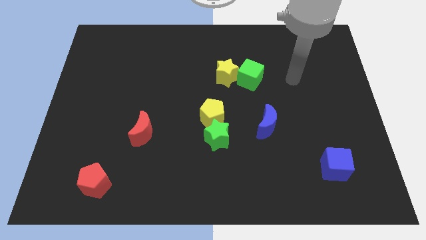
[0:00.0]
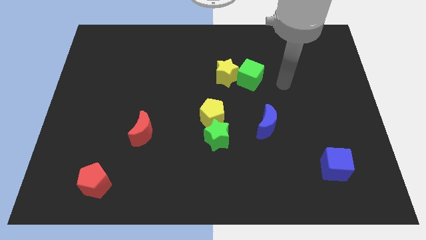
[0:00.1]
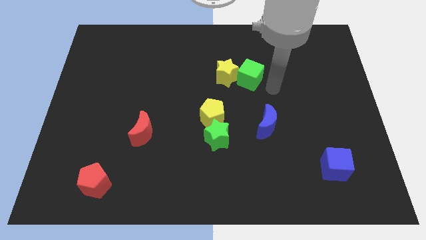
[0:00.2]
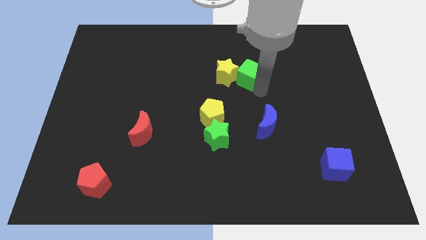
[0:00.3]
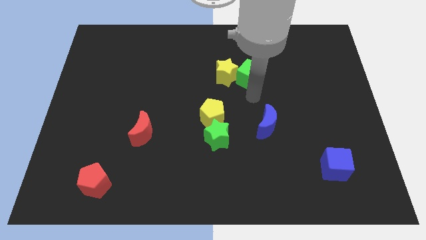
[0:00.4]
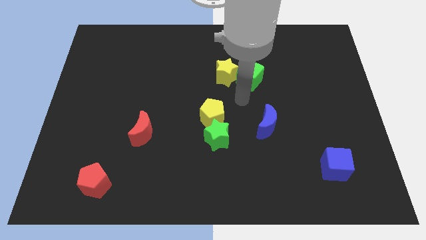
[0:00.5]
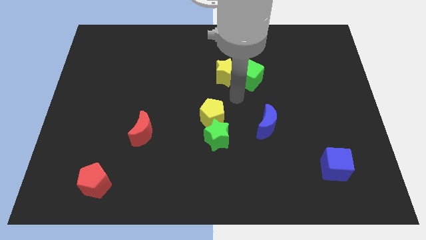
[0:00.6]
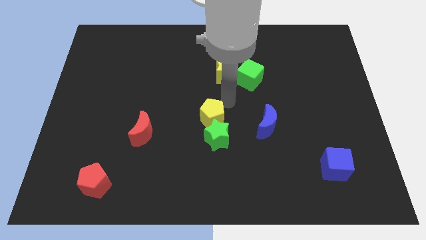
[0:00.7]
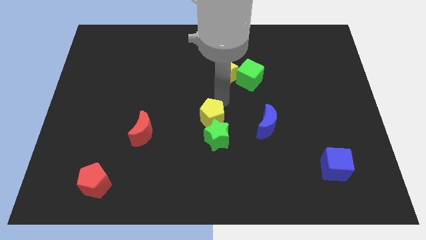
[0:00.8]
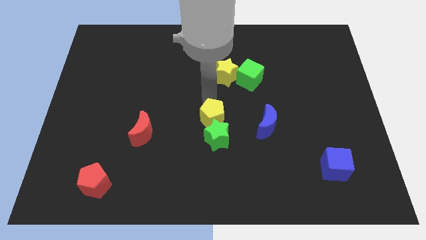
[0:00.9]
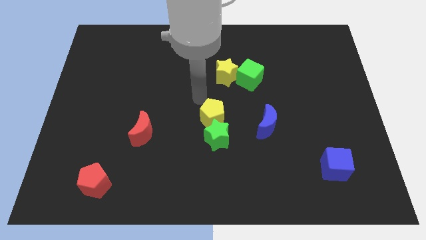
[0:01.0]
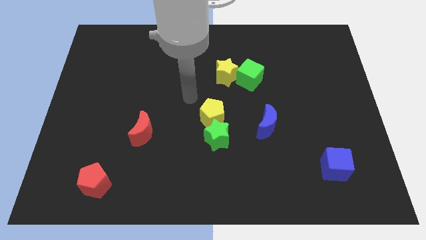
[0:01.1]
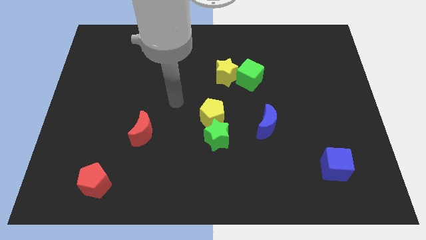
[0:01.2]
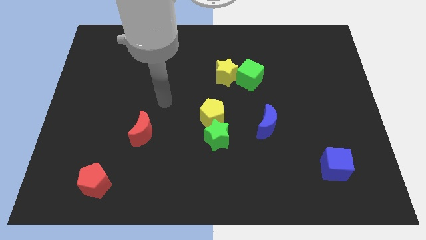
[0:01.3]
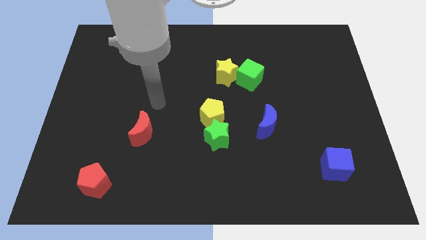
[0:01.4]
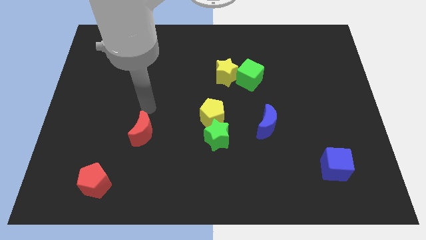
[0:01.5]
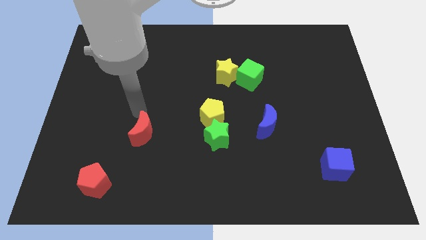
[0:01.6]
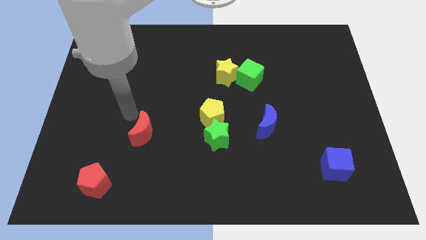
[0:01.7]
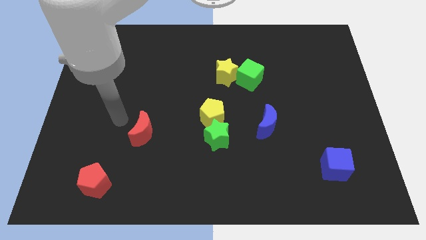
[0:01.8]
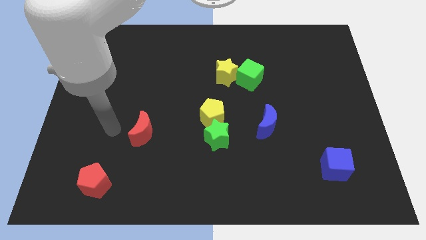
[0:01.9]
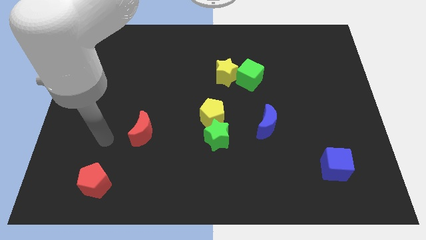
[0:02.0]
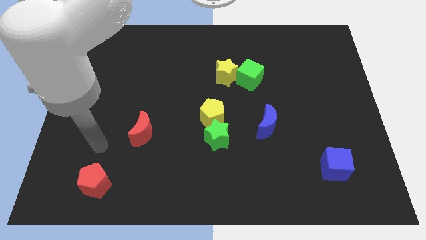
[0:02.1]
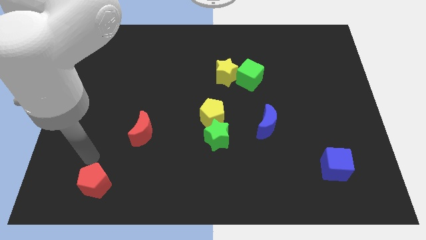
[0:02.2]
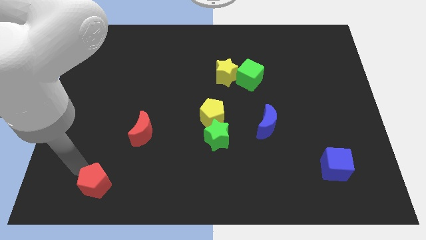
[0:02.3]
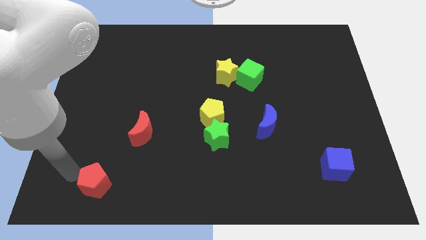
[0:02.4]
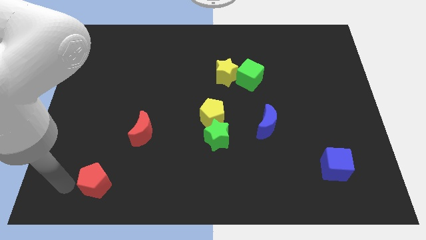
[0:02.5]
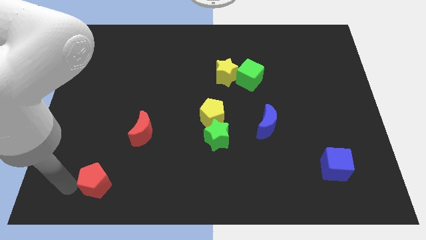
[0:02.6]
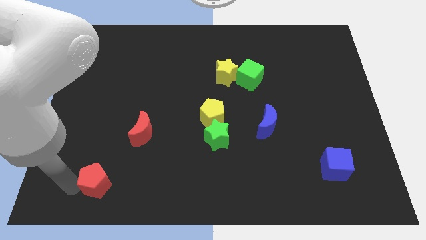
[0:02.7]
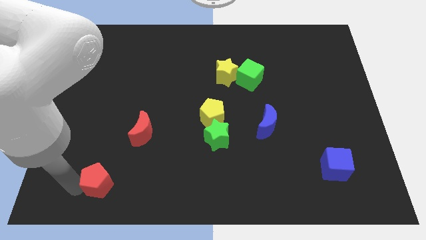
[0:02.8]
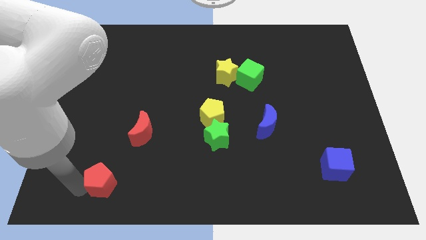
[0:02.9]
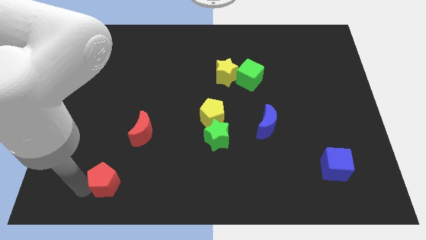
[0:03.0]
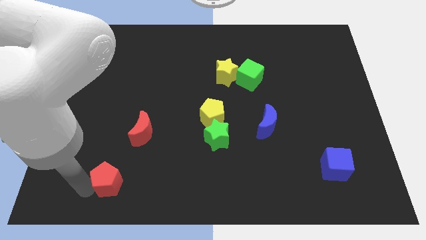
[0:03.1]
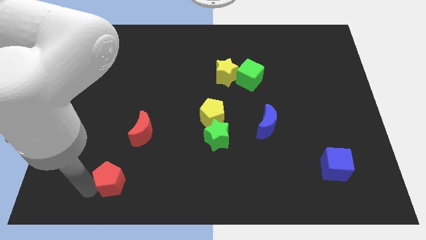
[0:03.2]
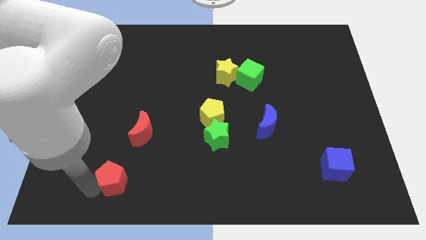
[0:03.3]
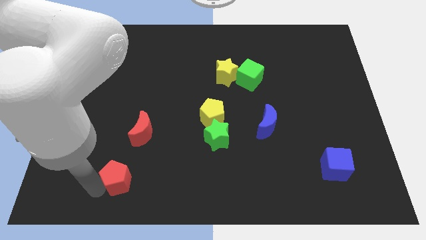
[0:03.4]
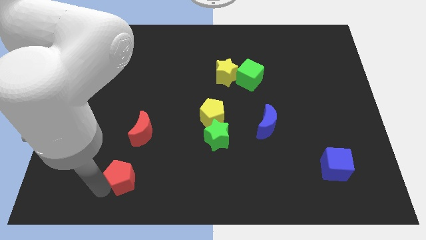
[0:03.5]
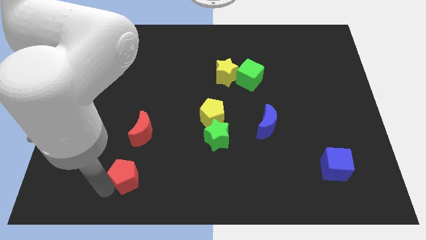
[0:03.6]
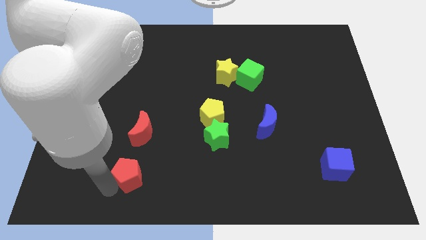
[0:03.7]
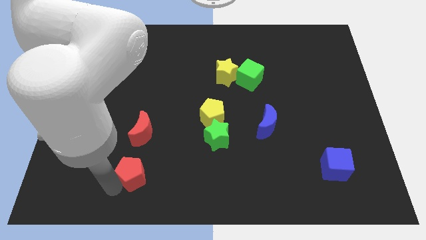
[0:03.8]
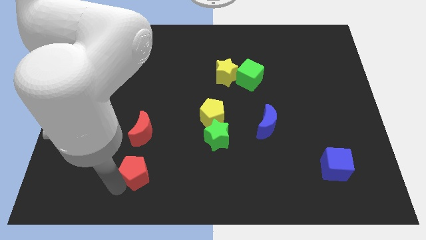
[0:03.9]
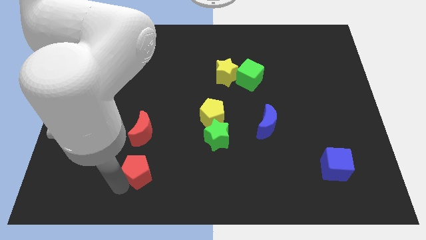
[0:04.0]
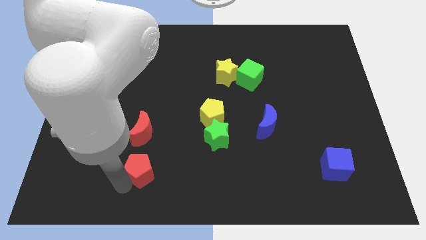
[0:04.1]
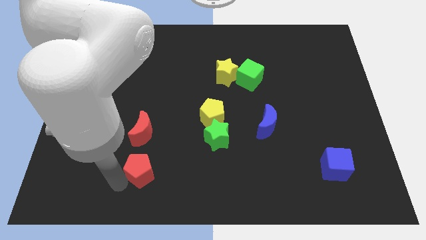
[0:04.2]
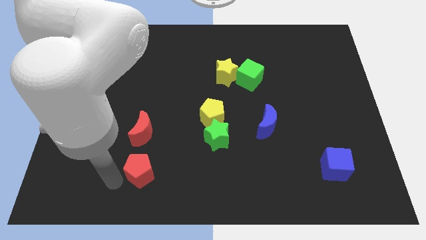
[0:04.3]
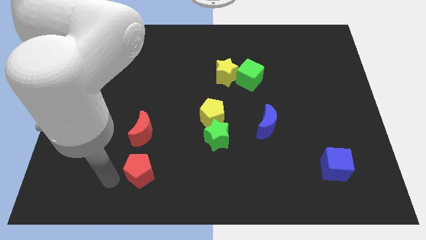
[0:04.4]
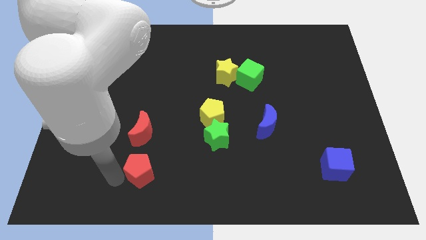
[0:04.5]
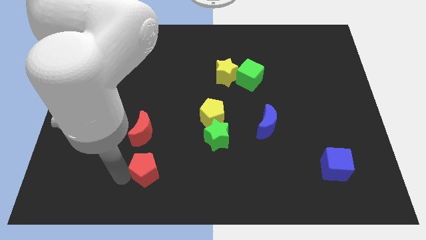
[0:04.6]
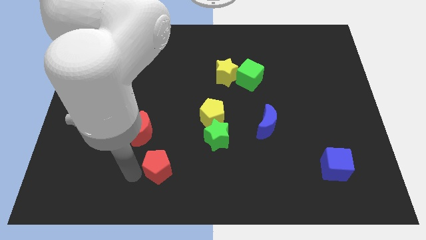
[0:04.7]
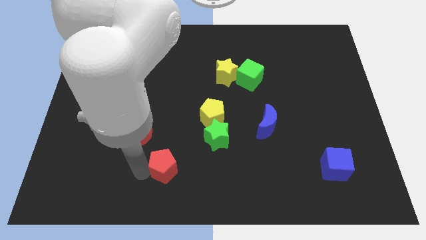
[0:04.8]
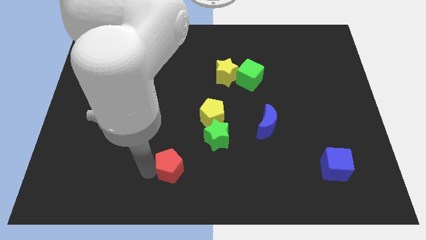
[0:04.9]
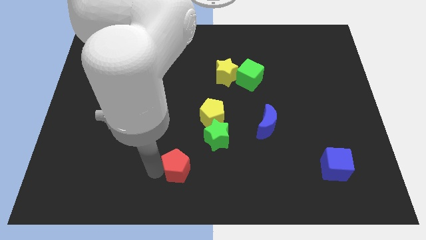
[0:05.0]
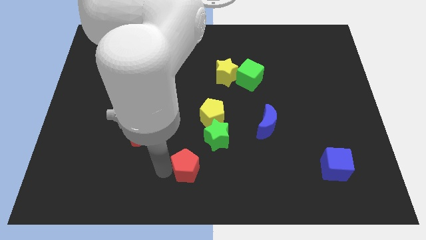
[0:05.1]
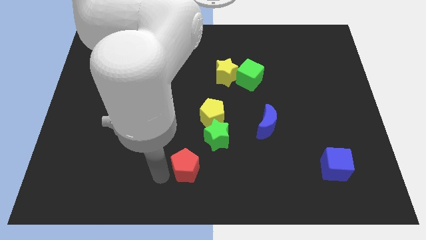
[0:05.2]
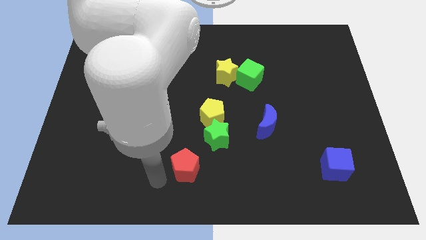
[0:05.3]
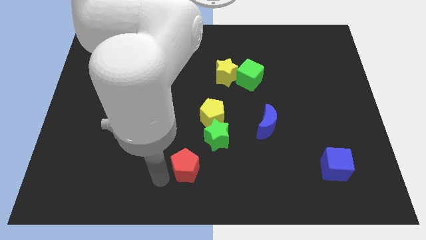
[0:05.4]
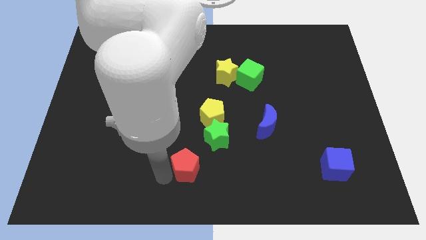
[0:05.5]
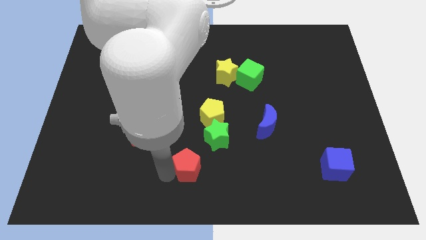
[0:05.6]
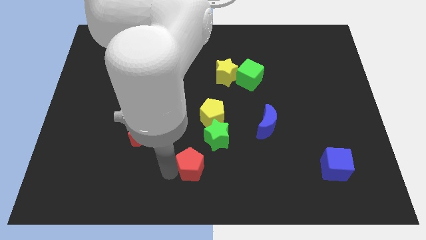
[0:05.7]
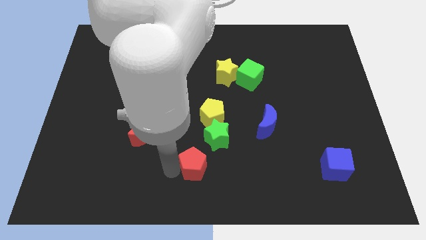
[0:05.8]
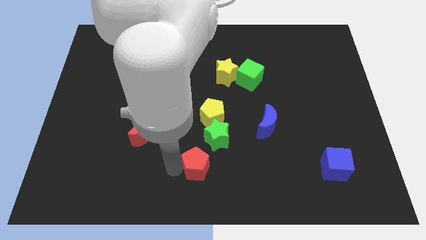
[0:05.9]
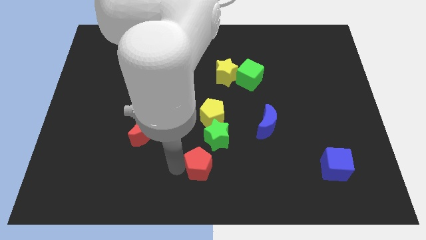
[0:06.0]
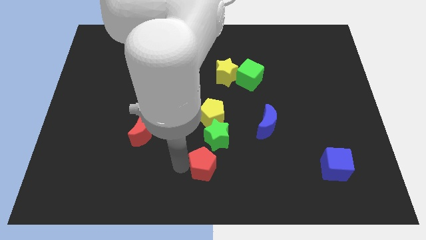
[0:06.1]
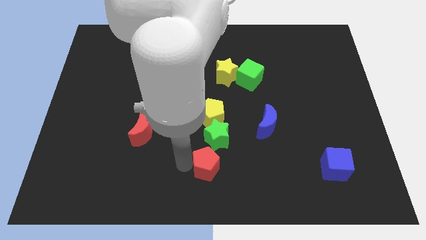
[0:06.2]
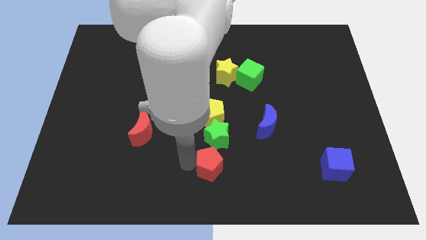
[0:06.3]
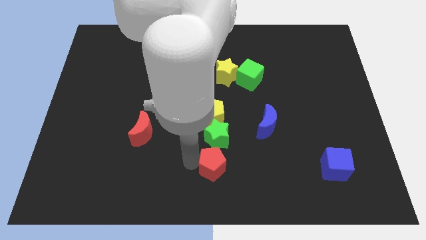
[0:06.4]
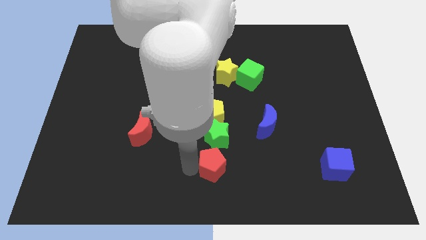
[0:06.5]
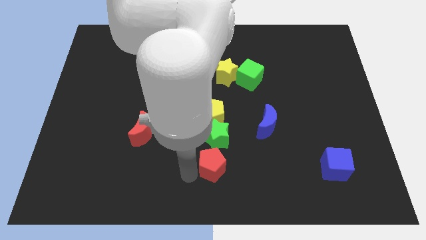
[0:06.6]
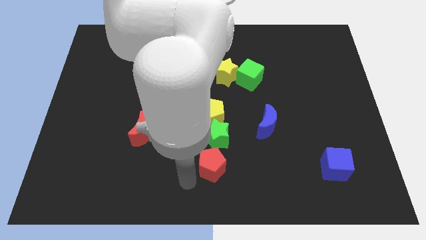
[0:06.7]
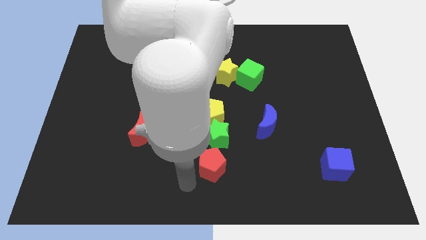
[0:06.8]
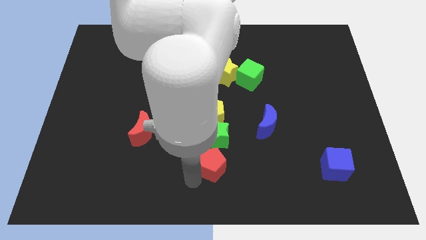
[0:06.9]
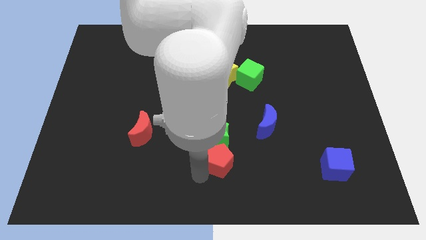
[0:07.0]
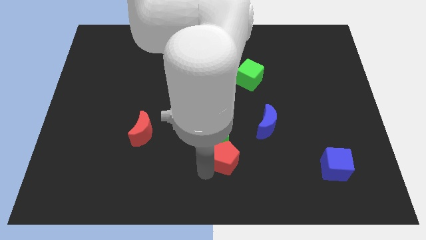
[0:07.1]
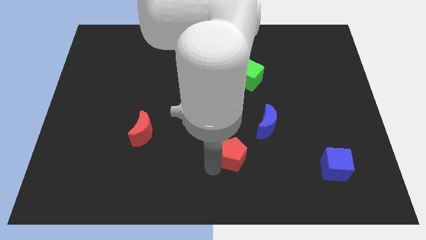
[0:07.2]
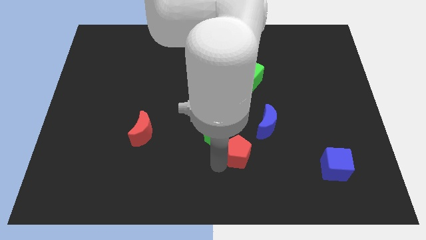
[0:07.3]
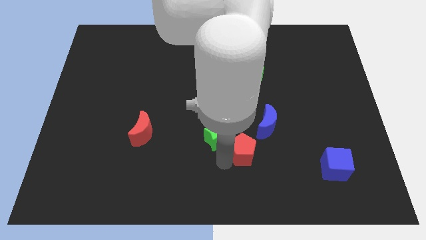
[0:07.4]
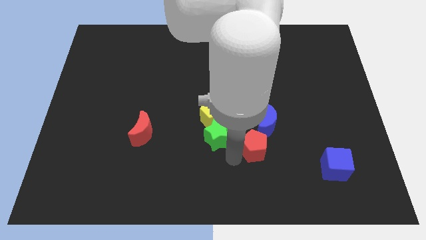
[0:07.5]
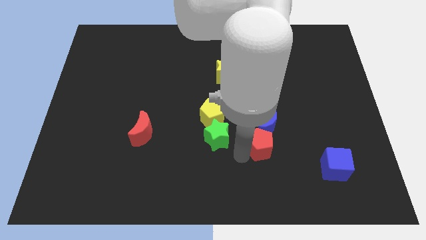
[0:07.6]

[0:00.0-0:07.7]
move the red pentagon close to the blue moon
